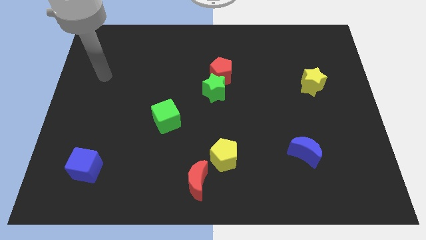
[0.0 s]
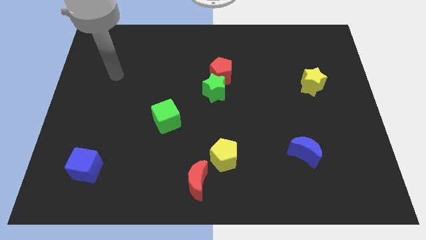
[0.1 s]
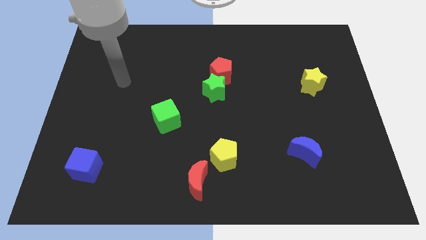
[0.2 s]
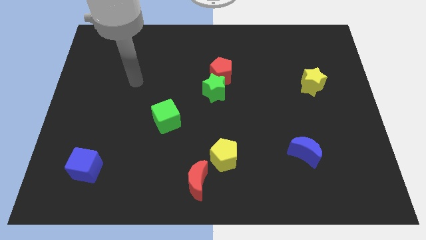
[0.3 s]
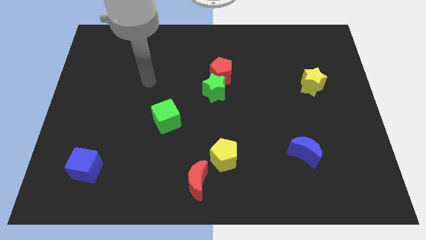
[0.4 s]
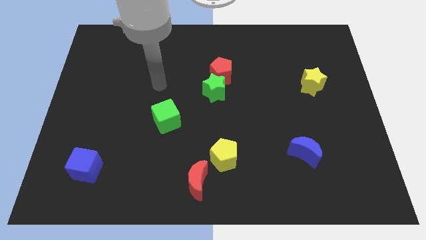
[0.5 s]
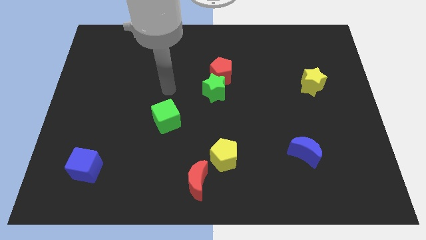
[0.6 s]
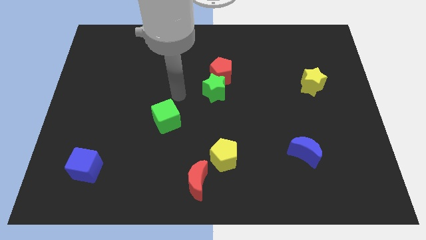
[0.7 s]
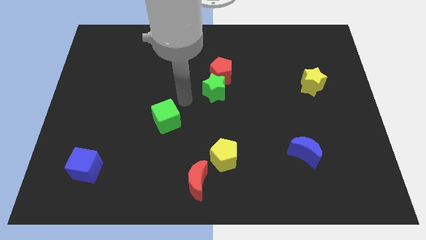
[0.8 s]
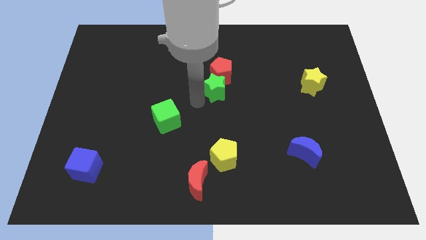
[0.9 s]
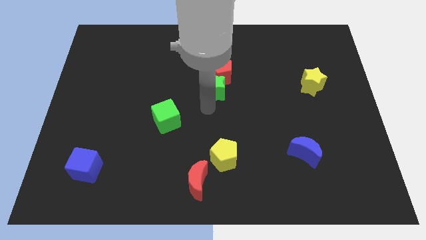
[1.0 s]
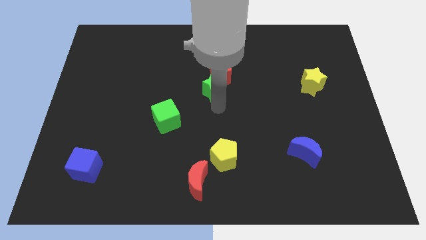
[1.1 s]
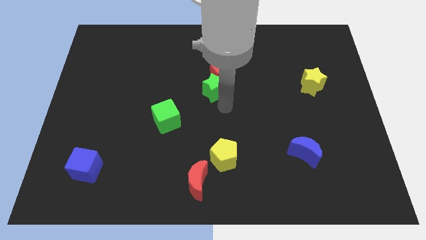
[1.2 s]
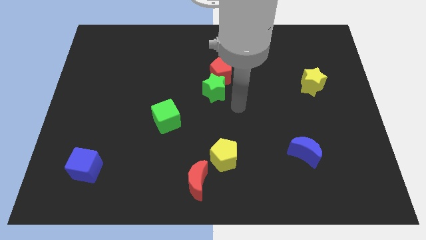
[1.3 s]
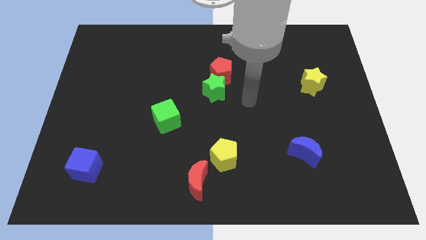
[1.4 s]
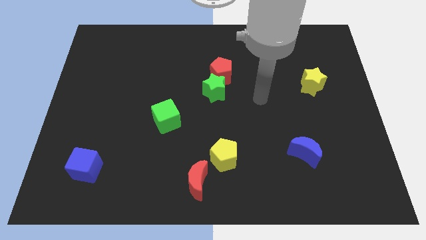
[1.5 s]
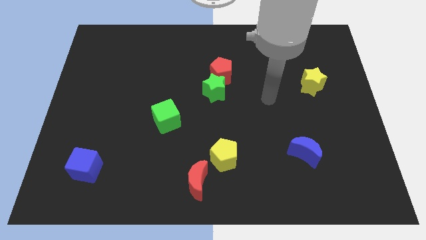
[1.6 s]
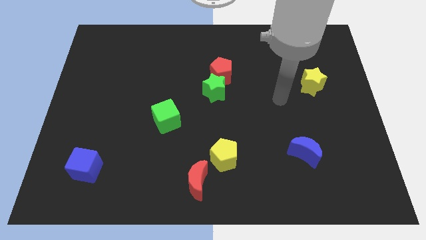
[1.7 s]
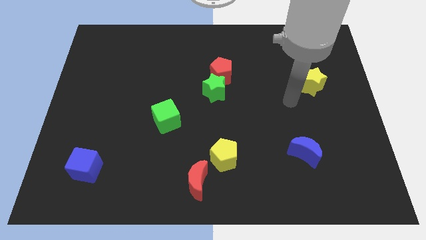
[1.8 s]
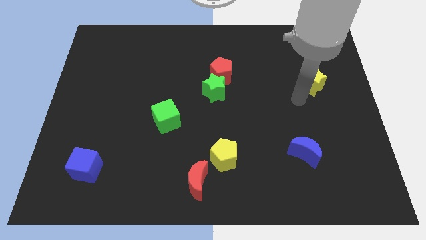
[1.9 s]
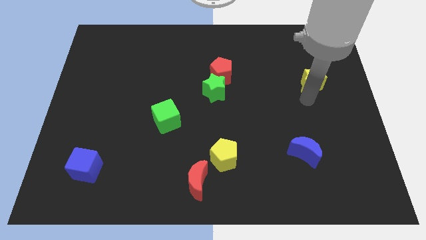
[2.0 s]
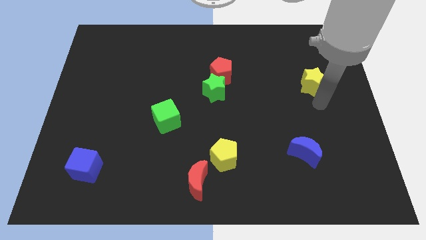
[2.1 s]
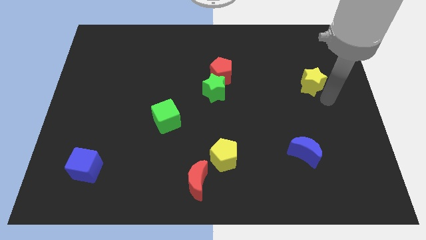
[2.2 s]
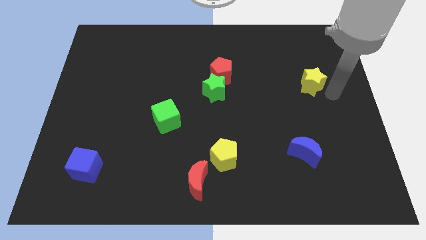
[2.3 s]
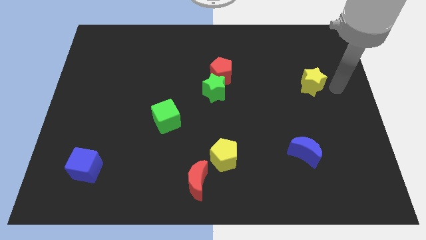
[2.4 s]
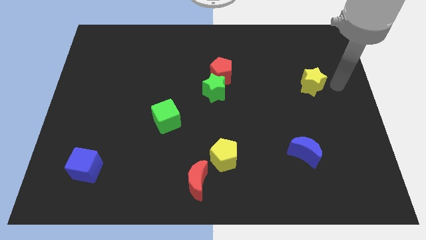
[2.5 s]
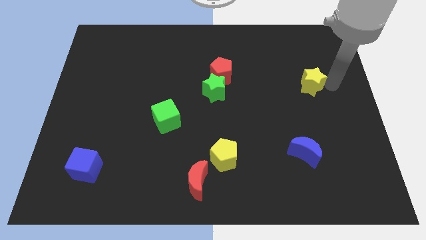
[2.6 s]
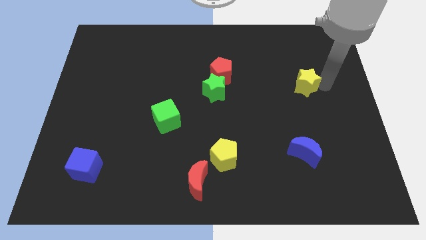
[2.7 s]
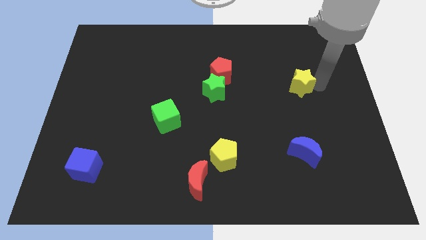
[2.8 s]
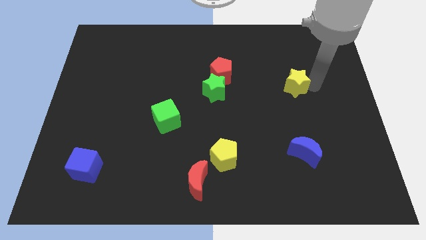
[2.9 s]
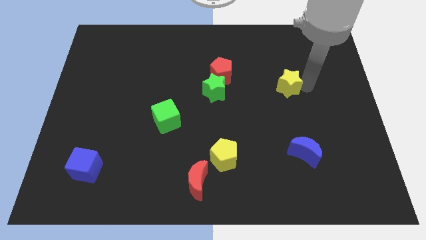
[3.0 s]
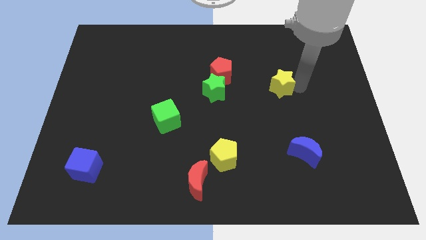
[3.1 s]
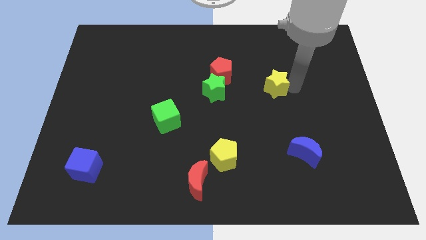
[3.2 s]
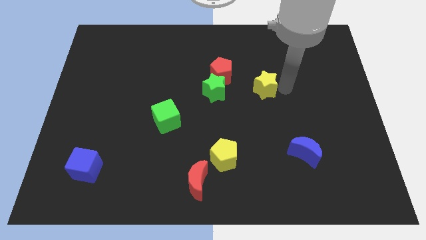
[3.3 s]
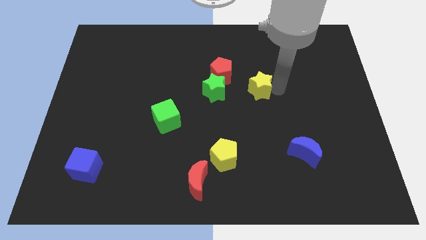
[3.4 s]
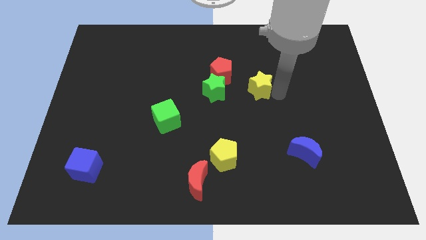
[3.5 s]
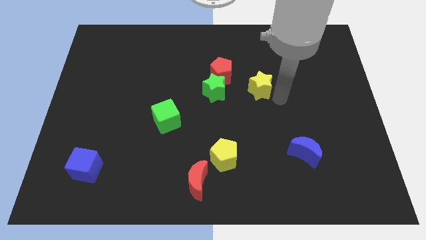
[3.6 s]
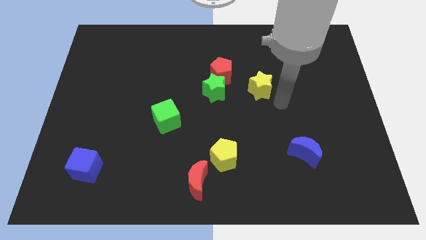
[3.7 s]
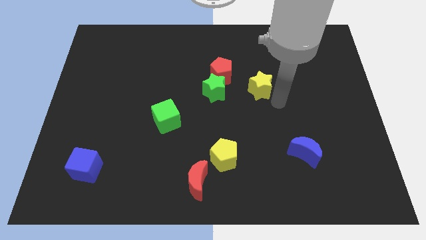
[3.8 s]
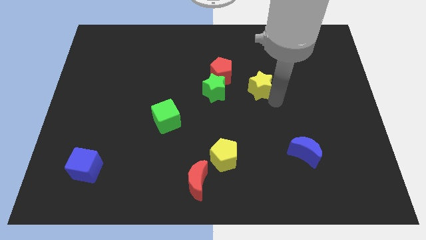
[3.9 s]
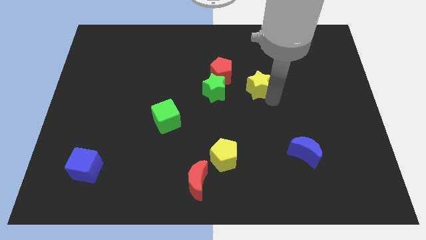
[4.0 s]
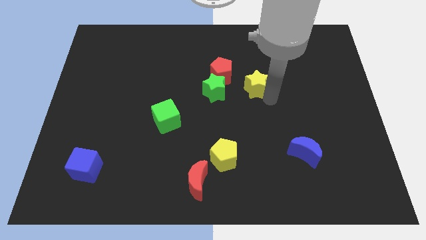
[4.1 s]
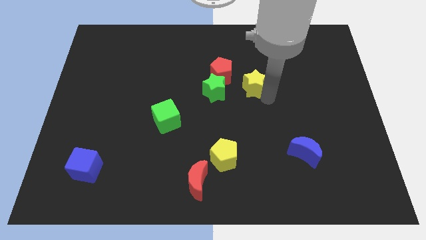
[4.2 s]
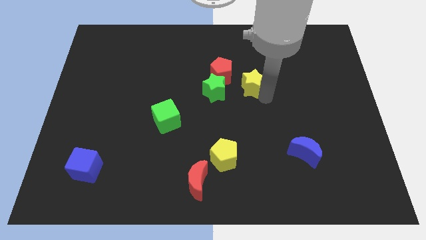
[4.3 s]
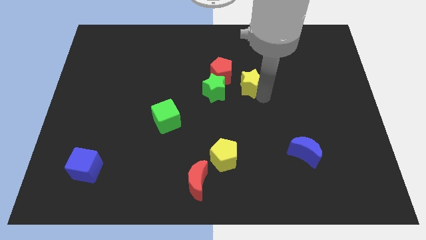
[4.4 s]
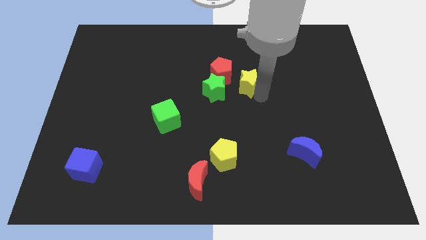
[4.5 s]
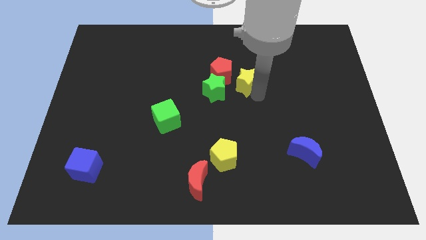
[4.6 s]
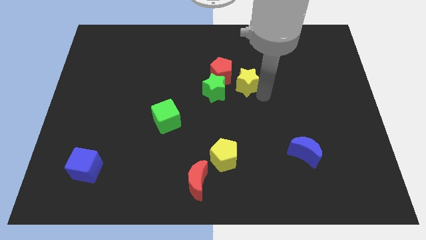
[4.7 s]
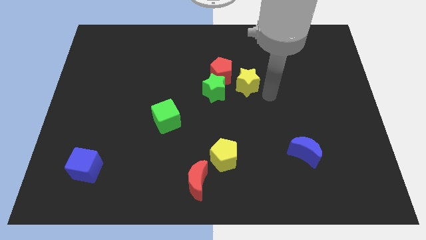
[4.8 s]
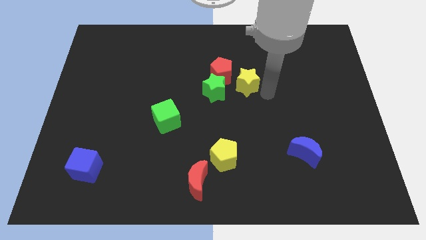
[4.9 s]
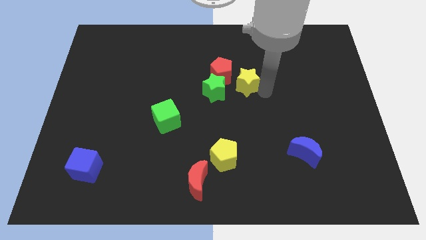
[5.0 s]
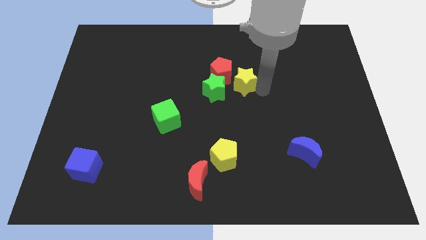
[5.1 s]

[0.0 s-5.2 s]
put the yellow star next to the red pentagon

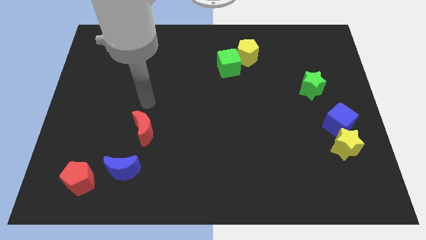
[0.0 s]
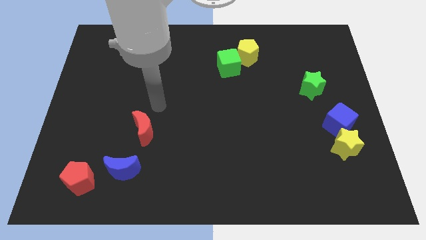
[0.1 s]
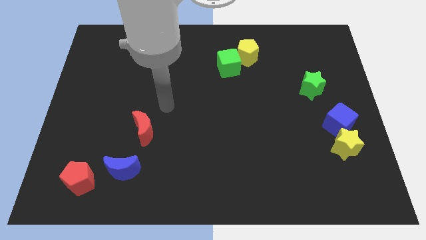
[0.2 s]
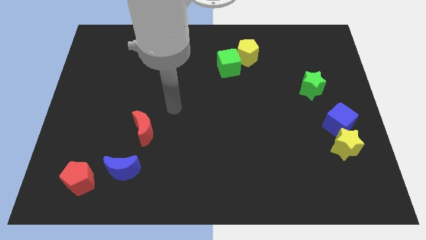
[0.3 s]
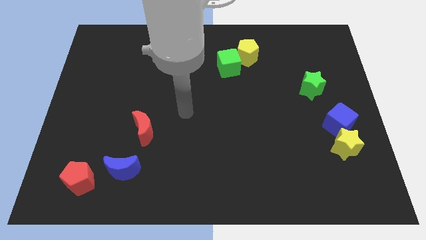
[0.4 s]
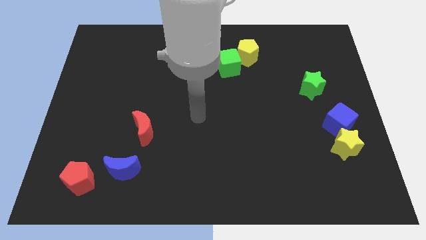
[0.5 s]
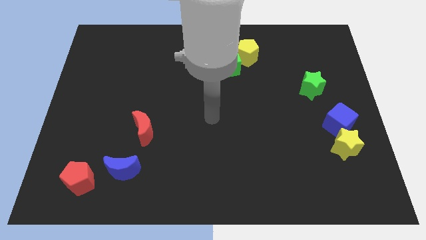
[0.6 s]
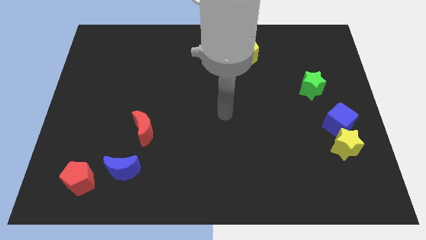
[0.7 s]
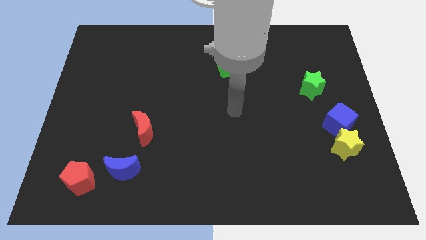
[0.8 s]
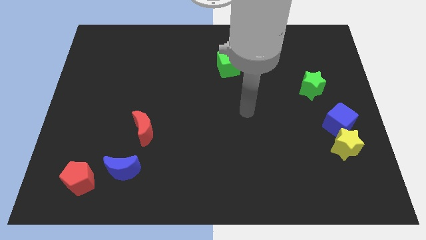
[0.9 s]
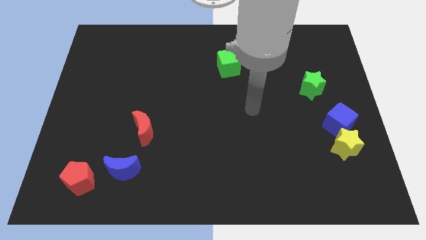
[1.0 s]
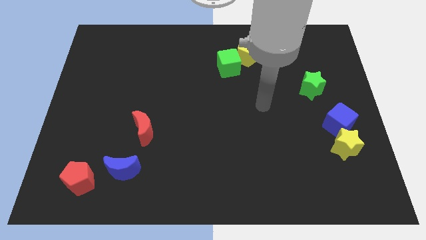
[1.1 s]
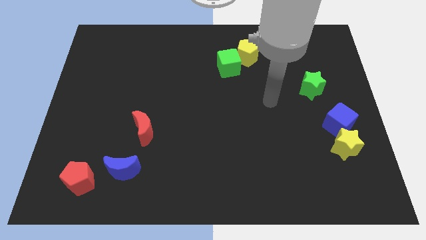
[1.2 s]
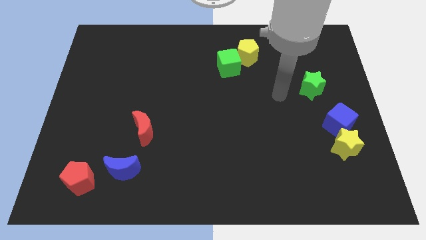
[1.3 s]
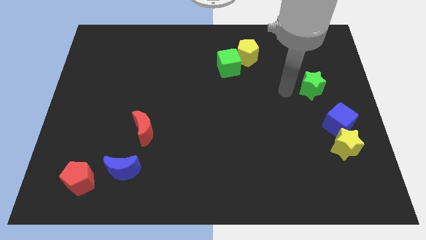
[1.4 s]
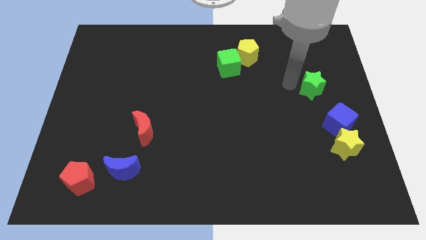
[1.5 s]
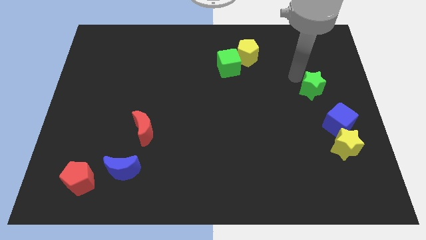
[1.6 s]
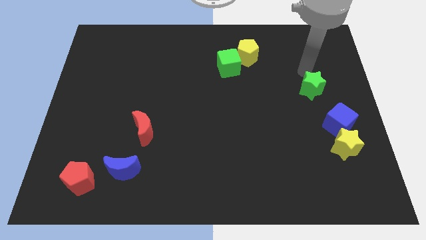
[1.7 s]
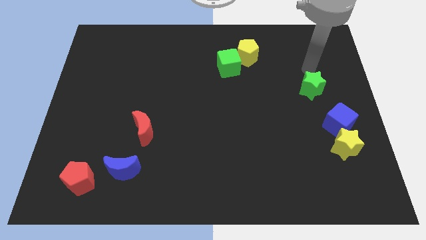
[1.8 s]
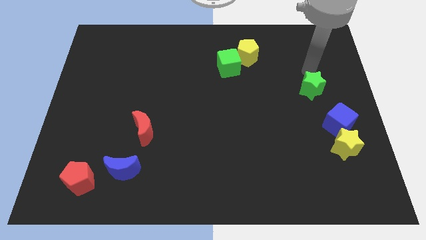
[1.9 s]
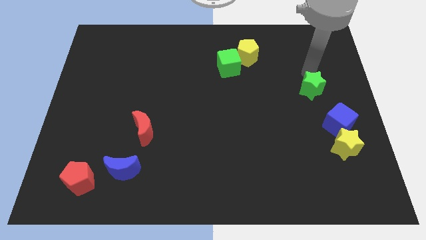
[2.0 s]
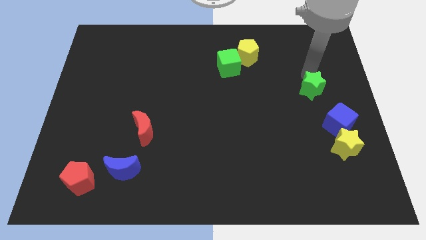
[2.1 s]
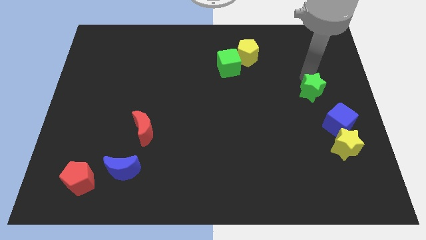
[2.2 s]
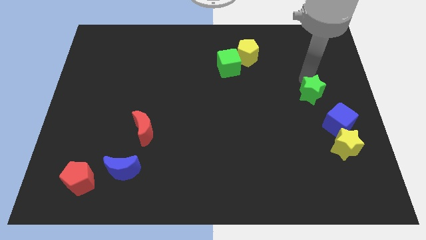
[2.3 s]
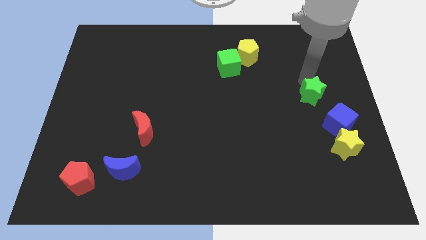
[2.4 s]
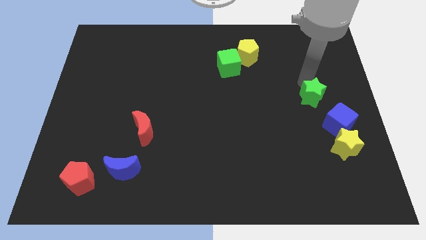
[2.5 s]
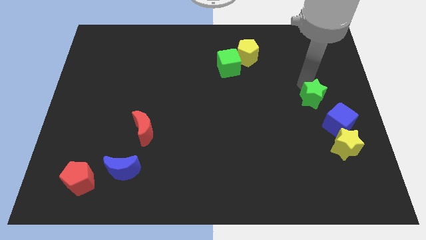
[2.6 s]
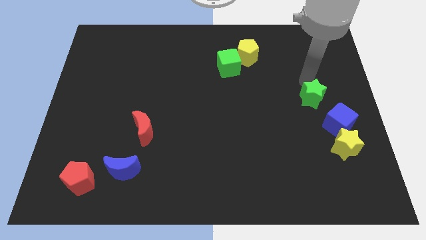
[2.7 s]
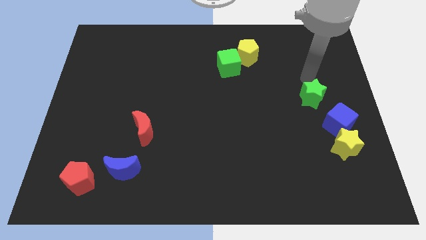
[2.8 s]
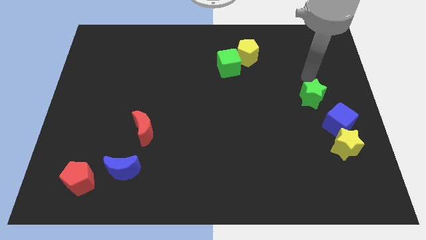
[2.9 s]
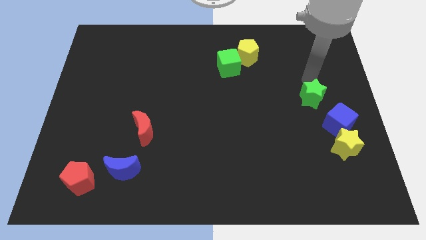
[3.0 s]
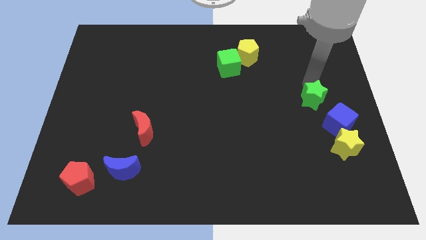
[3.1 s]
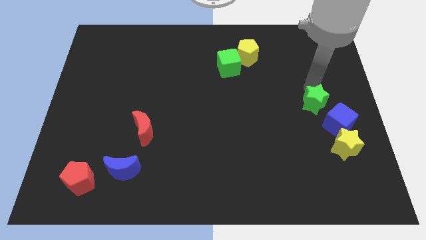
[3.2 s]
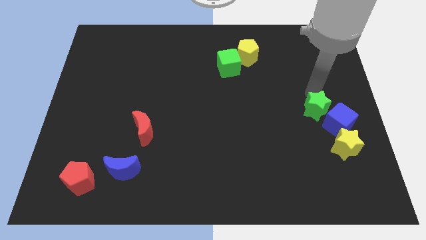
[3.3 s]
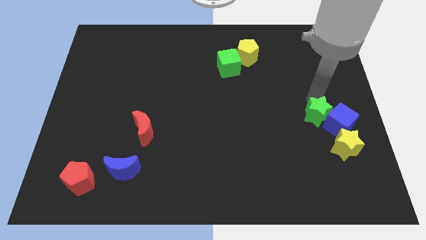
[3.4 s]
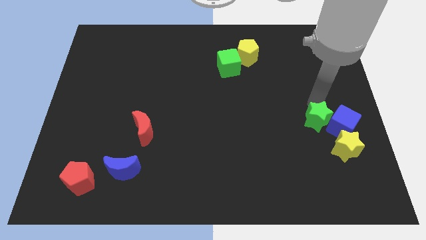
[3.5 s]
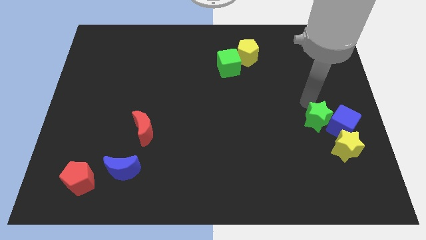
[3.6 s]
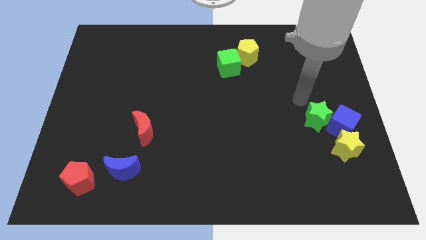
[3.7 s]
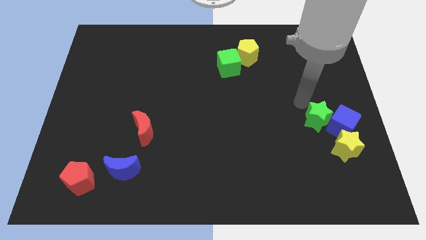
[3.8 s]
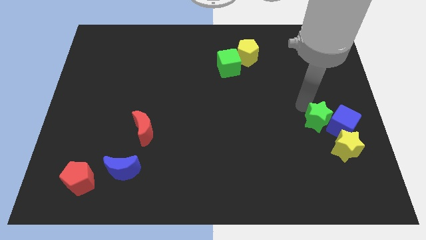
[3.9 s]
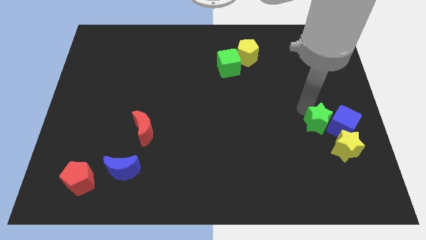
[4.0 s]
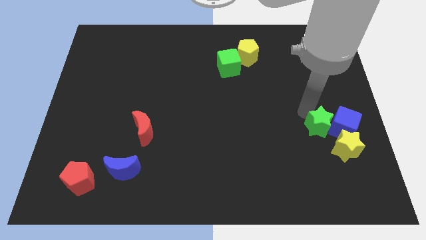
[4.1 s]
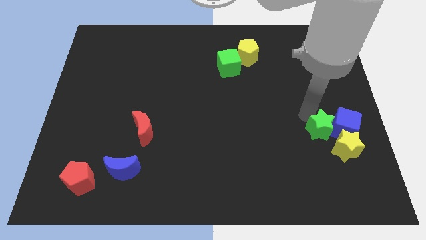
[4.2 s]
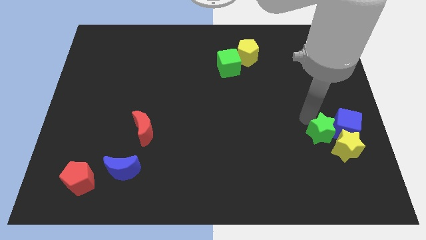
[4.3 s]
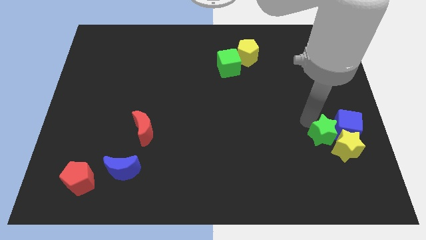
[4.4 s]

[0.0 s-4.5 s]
put the green star next to the yellow star
